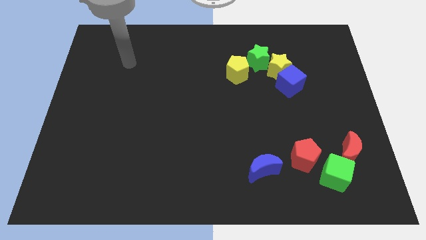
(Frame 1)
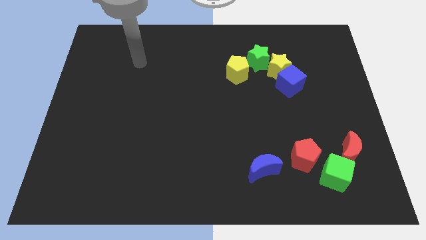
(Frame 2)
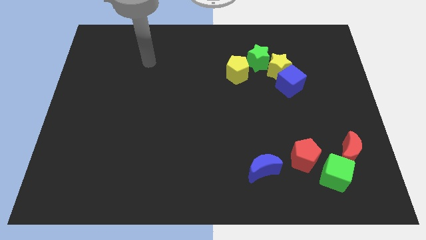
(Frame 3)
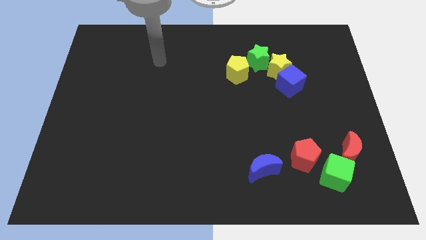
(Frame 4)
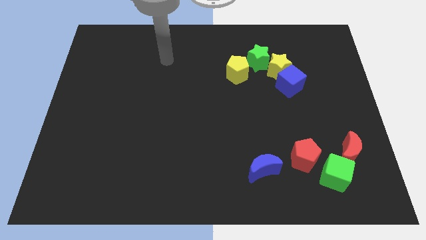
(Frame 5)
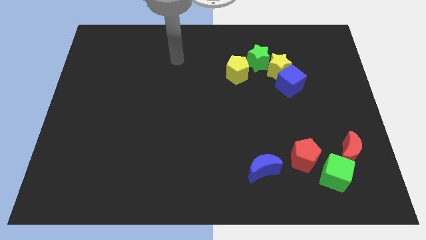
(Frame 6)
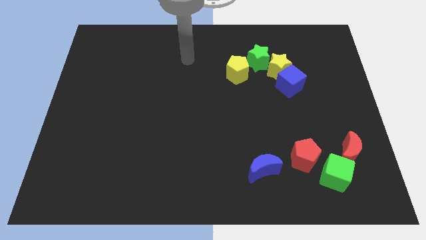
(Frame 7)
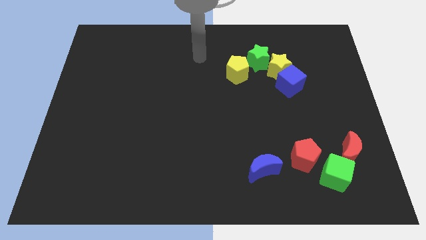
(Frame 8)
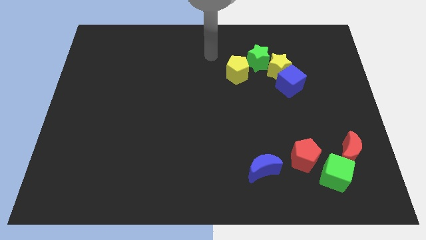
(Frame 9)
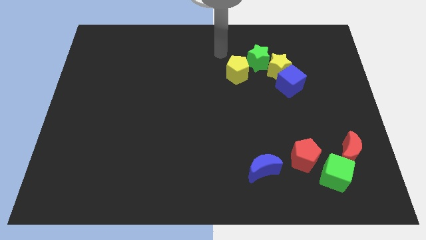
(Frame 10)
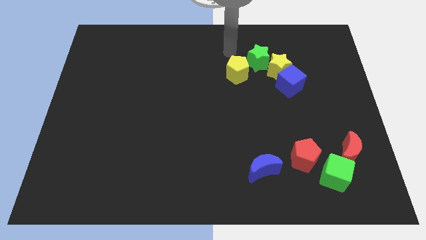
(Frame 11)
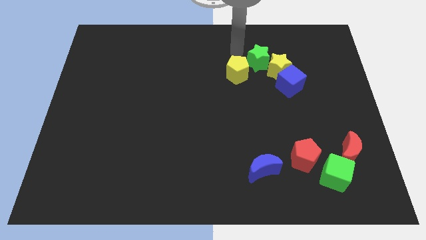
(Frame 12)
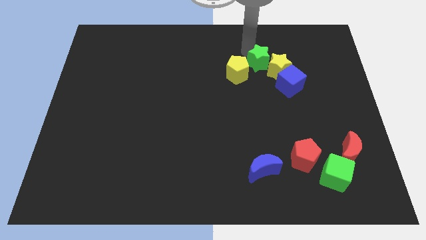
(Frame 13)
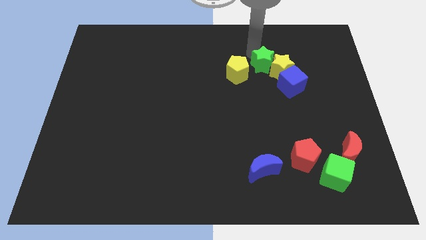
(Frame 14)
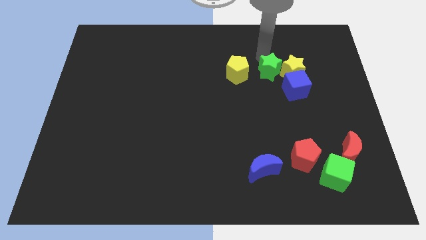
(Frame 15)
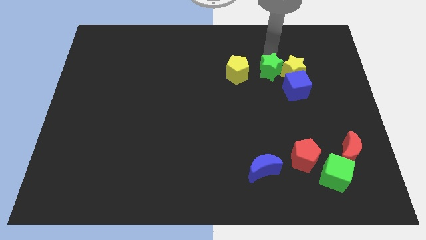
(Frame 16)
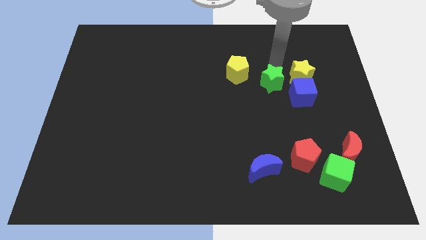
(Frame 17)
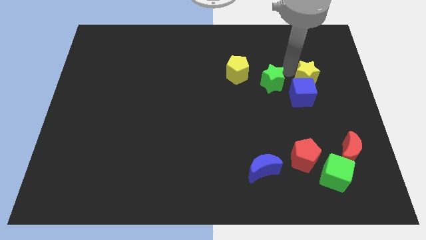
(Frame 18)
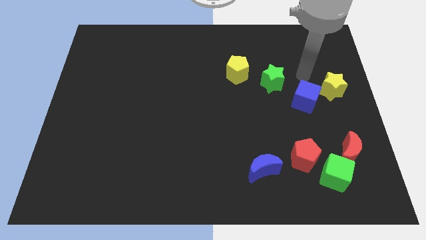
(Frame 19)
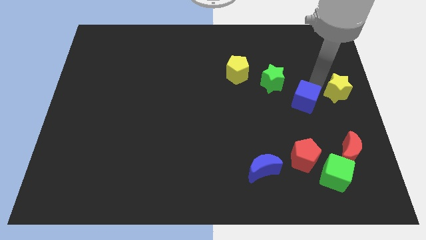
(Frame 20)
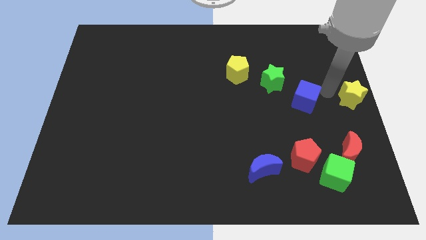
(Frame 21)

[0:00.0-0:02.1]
separate the blue cube from the yellow star

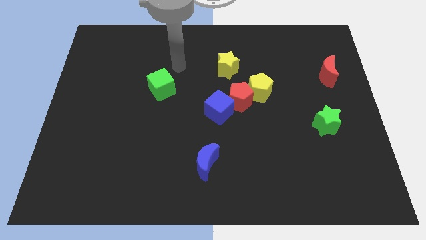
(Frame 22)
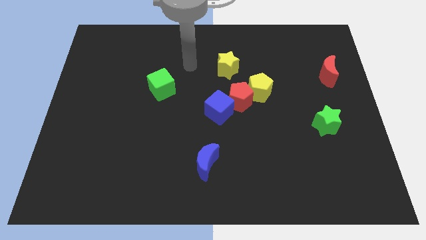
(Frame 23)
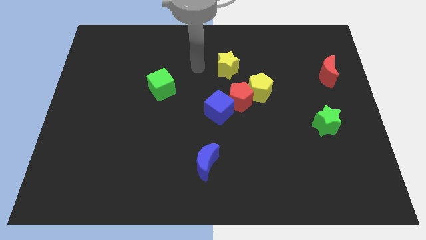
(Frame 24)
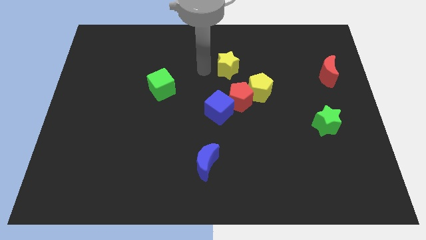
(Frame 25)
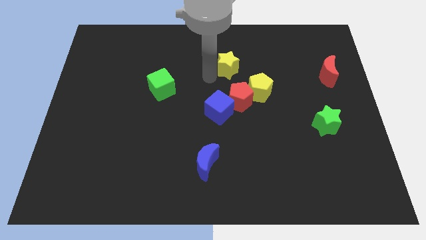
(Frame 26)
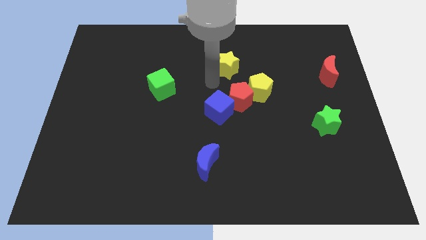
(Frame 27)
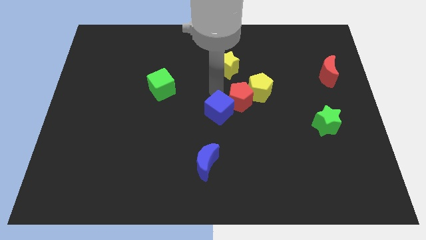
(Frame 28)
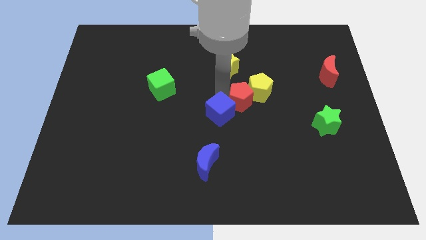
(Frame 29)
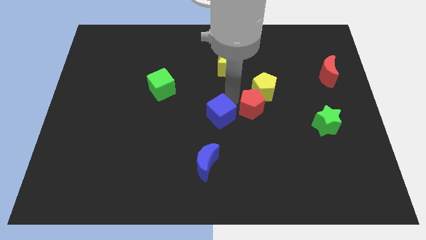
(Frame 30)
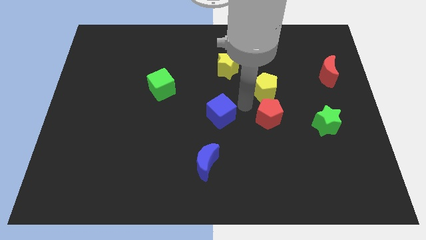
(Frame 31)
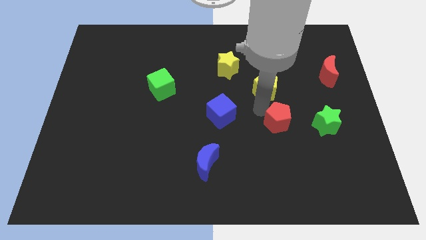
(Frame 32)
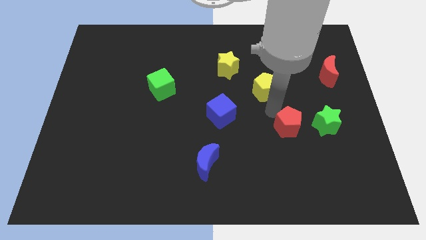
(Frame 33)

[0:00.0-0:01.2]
move the yellow pentagon away from the red pentagon

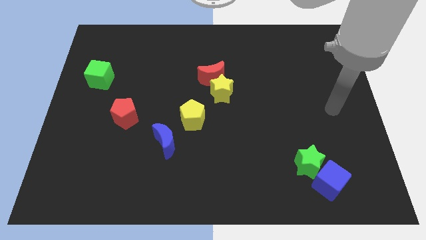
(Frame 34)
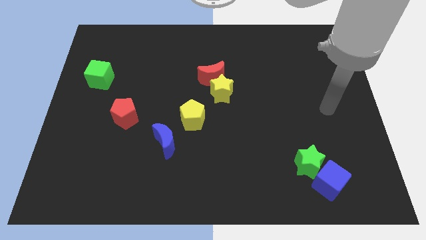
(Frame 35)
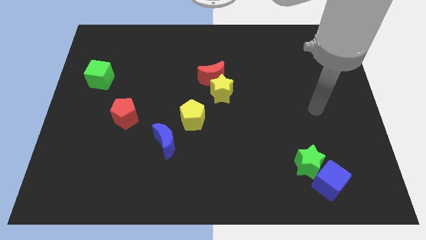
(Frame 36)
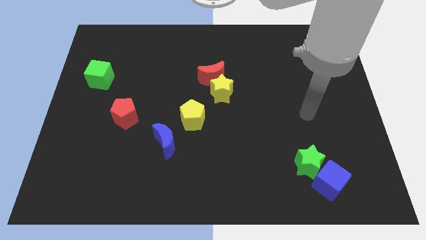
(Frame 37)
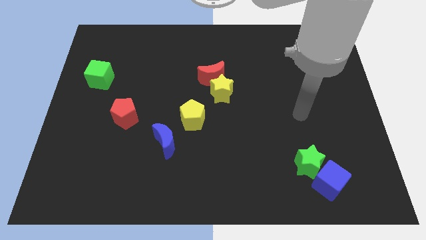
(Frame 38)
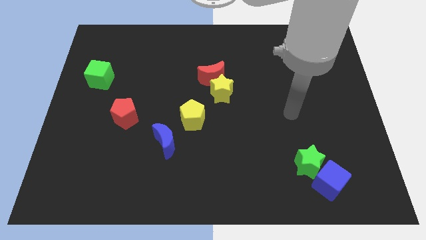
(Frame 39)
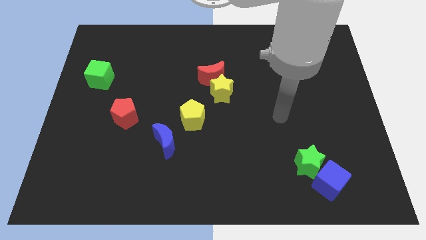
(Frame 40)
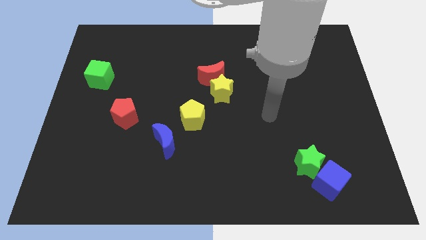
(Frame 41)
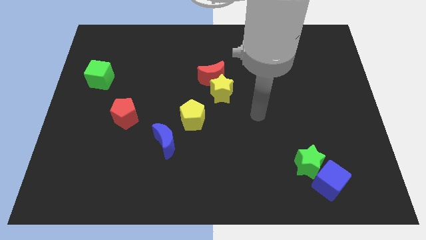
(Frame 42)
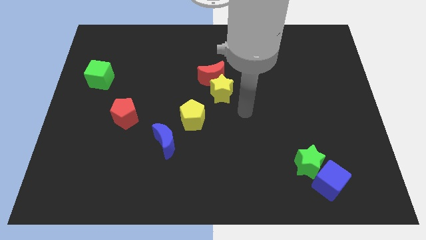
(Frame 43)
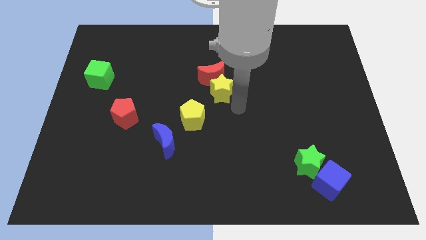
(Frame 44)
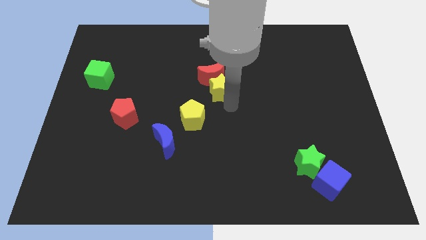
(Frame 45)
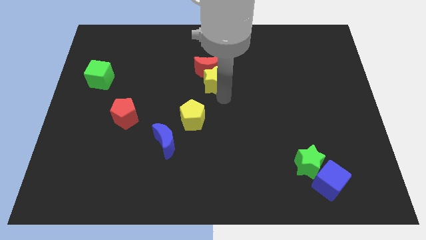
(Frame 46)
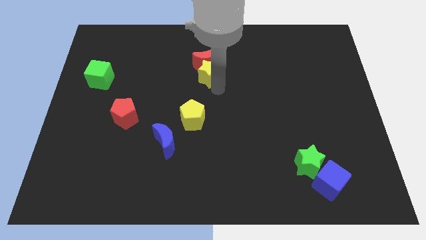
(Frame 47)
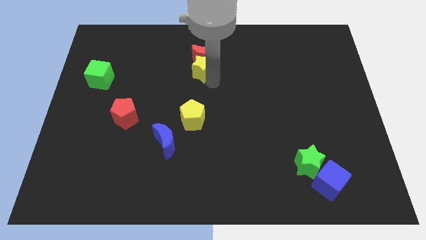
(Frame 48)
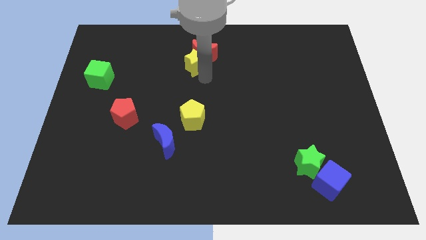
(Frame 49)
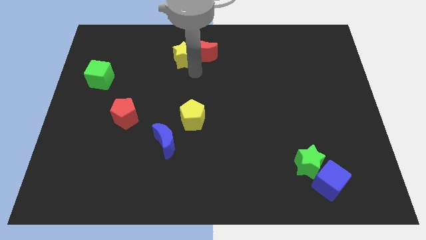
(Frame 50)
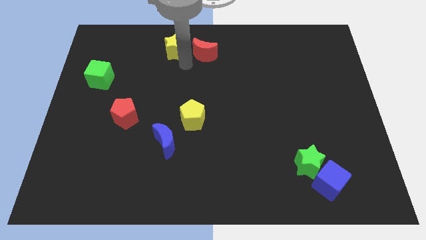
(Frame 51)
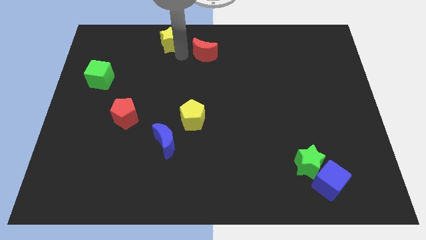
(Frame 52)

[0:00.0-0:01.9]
pull the red moon apart from the yellow star

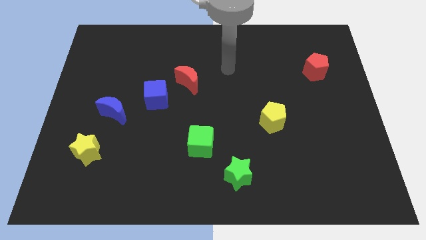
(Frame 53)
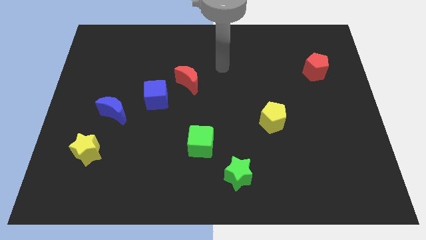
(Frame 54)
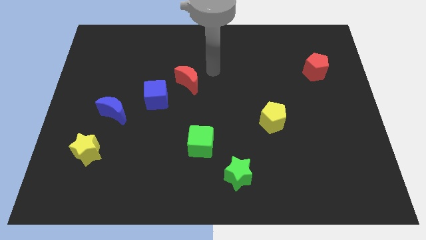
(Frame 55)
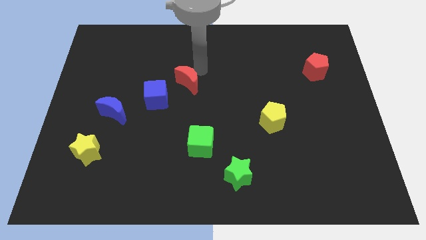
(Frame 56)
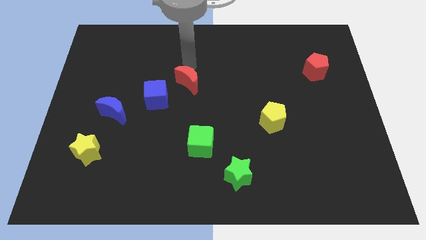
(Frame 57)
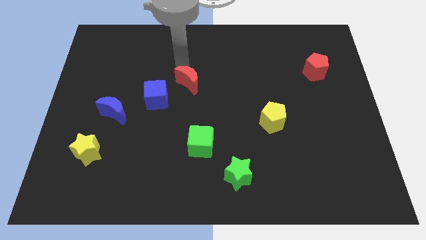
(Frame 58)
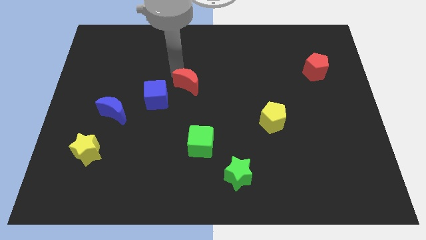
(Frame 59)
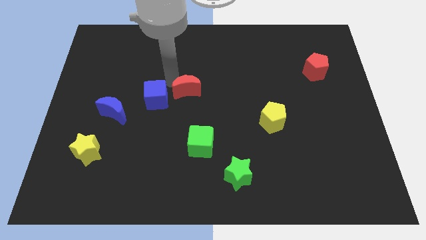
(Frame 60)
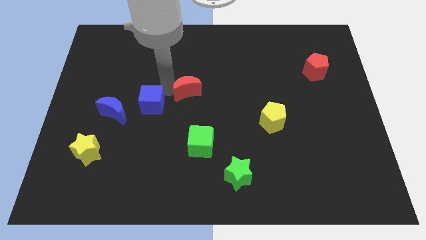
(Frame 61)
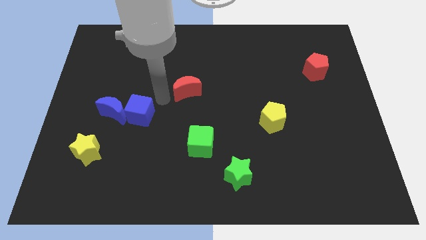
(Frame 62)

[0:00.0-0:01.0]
separate the red moon from the blue cube

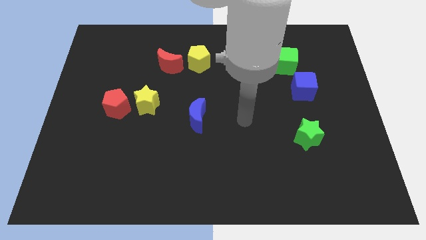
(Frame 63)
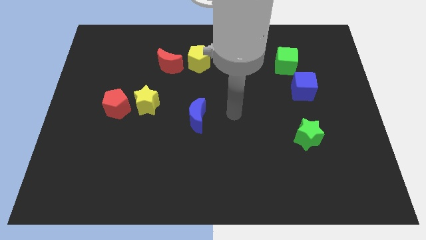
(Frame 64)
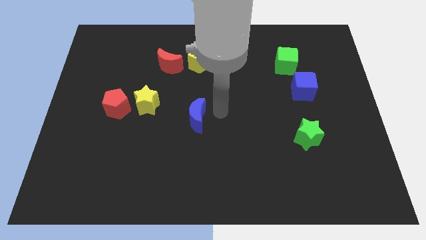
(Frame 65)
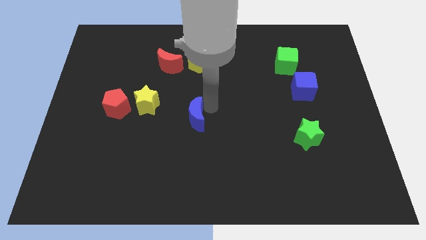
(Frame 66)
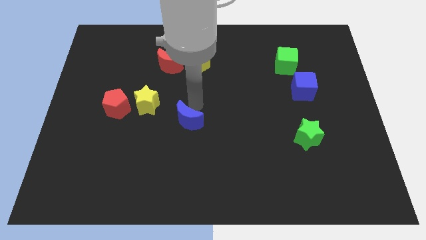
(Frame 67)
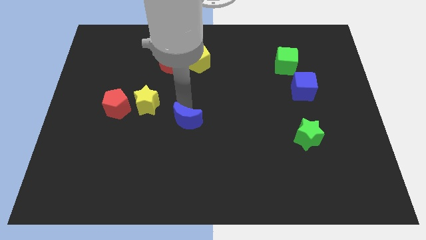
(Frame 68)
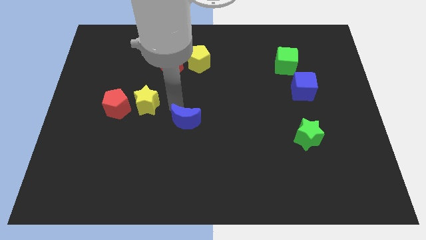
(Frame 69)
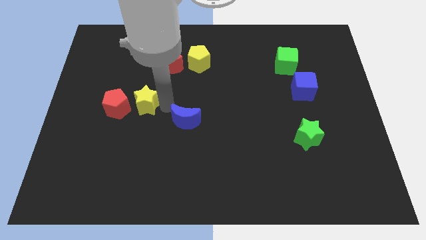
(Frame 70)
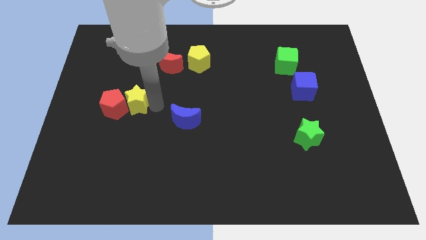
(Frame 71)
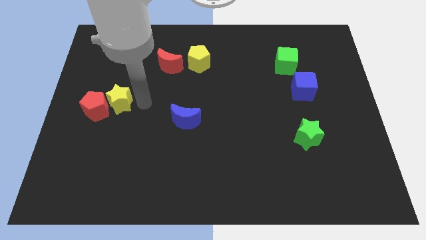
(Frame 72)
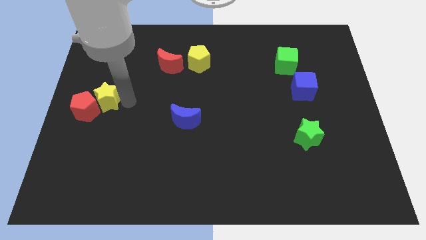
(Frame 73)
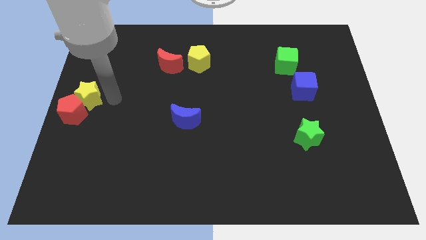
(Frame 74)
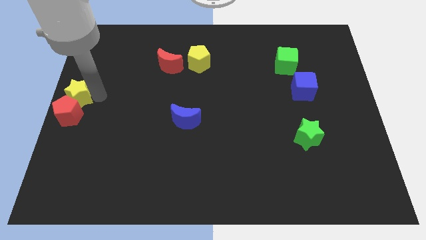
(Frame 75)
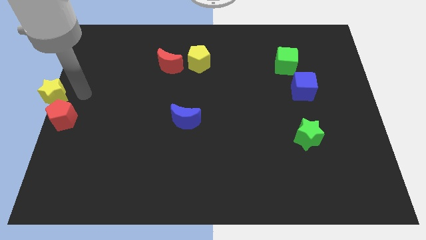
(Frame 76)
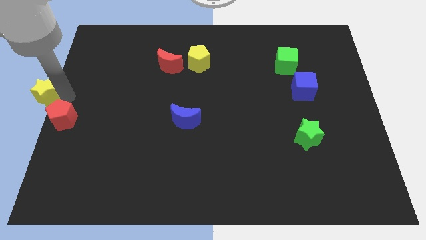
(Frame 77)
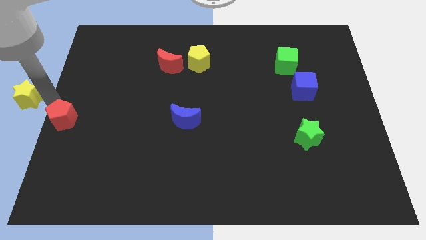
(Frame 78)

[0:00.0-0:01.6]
separate the red pentagon from the yellow star

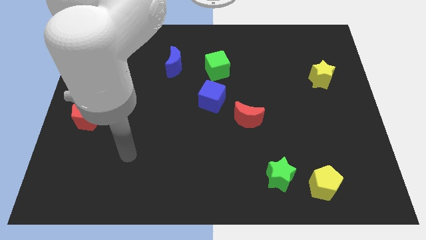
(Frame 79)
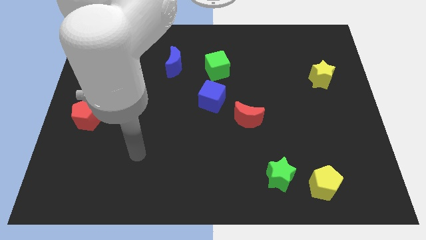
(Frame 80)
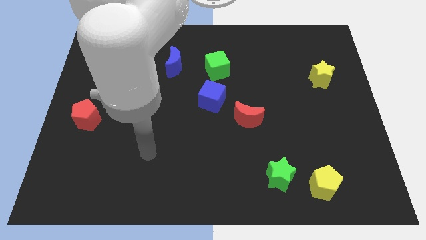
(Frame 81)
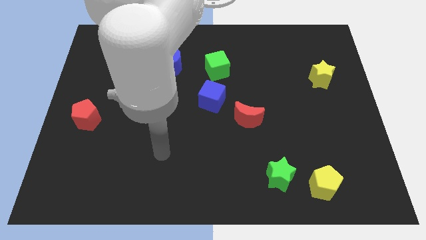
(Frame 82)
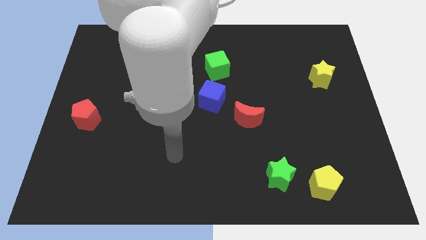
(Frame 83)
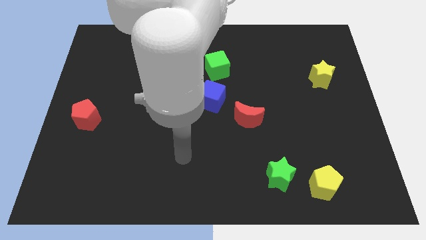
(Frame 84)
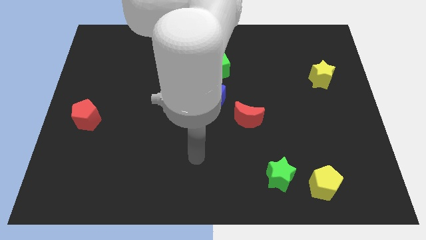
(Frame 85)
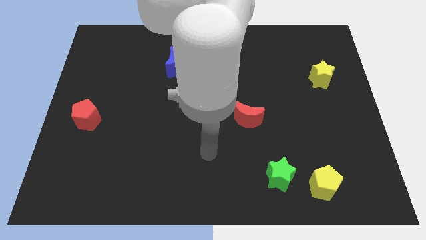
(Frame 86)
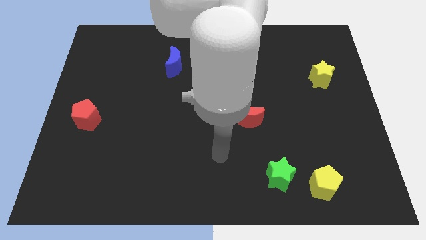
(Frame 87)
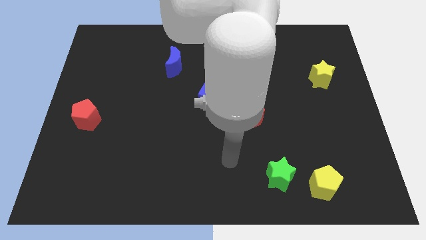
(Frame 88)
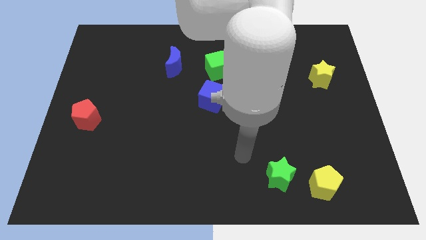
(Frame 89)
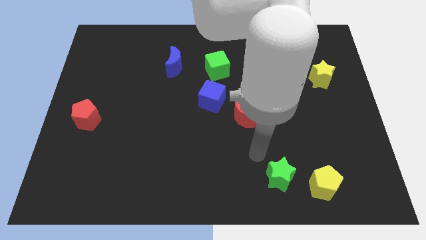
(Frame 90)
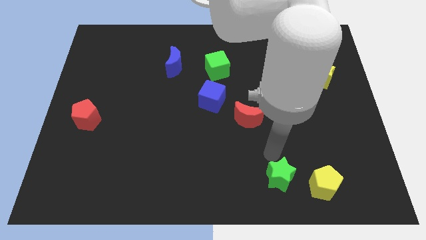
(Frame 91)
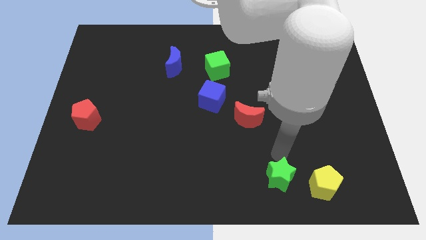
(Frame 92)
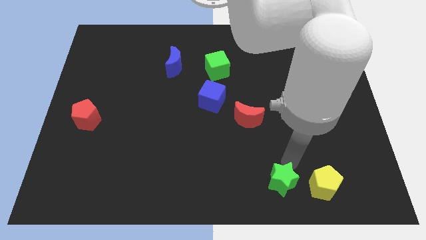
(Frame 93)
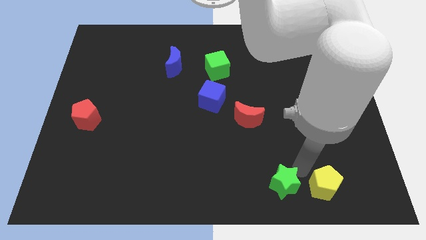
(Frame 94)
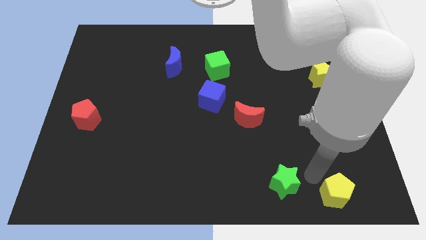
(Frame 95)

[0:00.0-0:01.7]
pull the green star apart from the yellow pentagon
